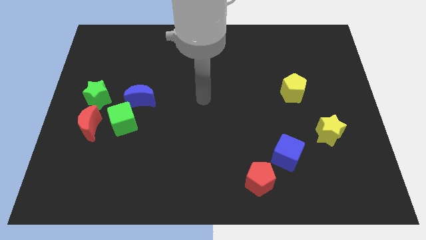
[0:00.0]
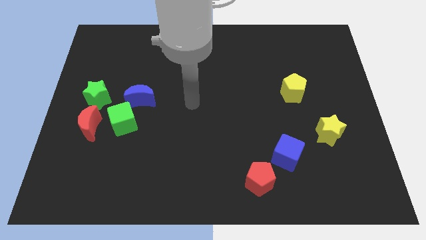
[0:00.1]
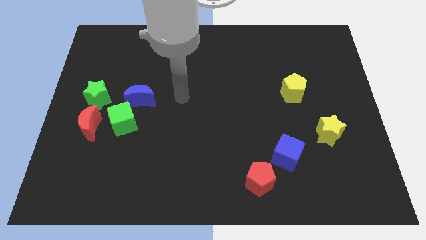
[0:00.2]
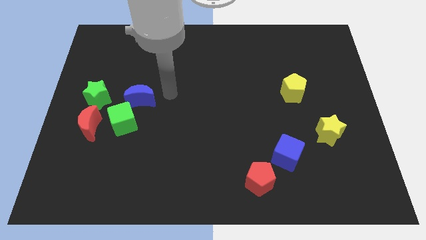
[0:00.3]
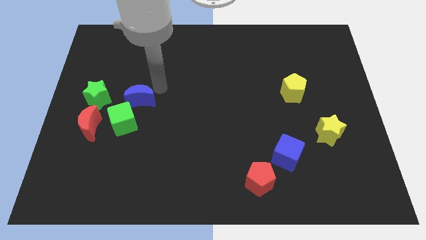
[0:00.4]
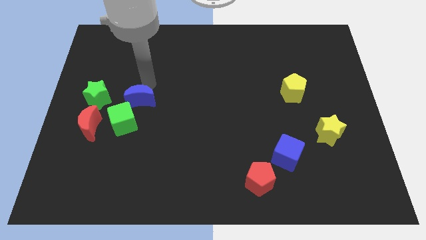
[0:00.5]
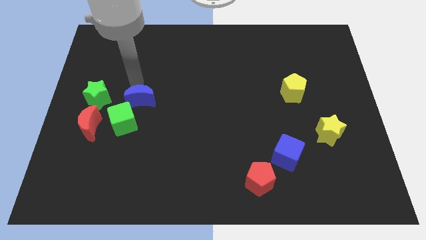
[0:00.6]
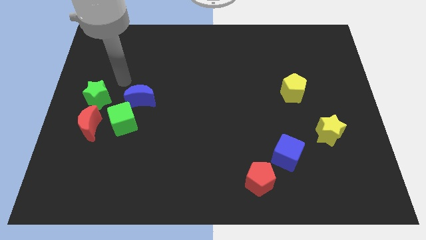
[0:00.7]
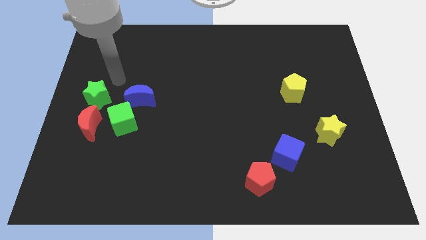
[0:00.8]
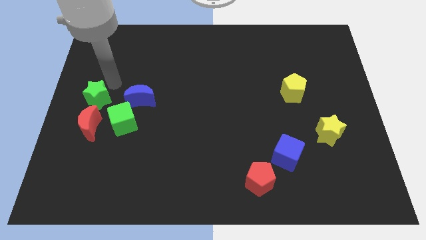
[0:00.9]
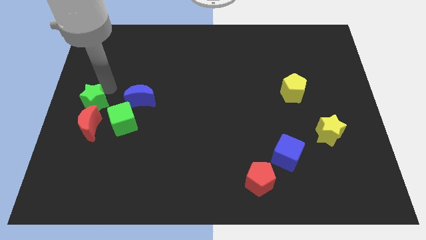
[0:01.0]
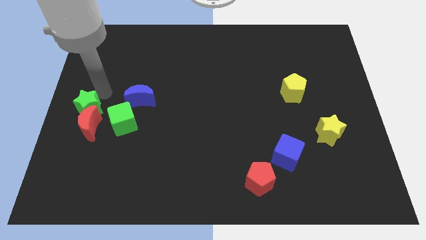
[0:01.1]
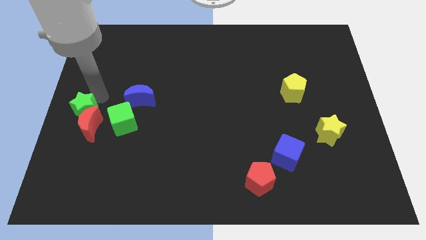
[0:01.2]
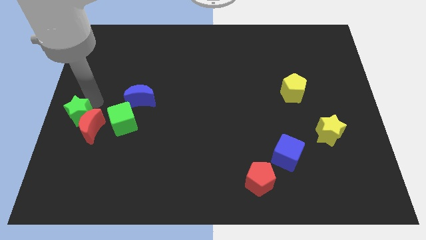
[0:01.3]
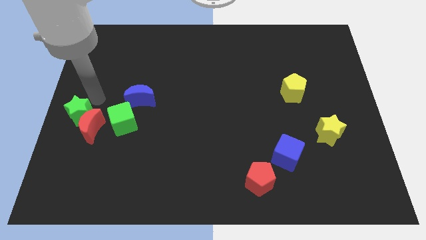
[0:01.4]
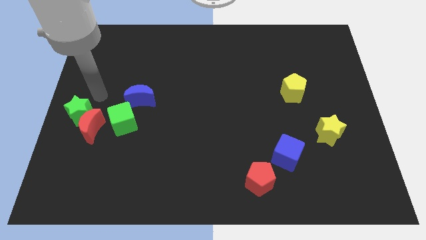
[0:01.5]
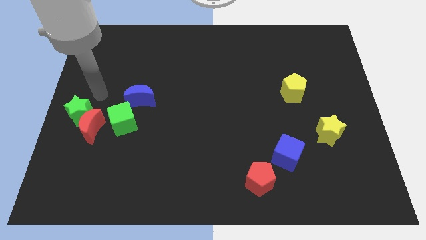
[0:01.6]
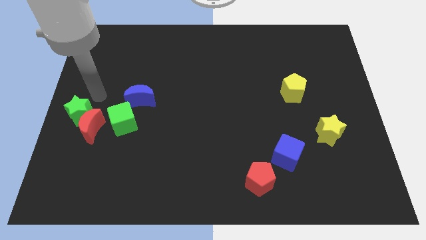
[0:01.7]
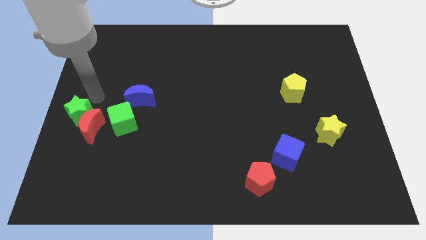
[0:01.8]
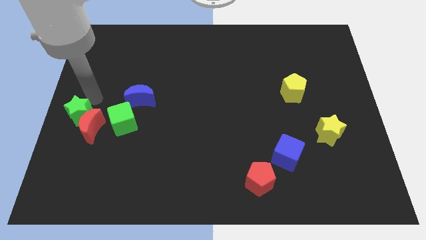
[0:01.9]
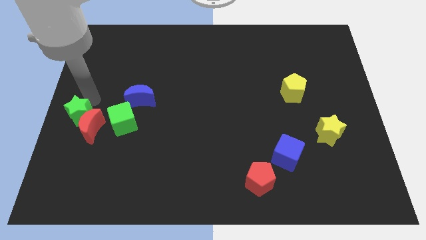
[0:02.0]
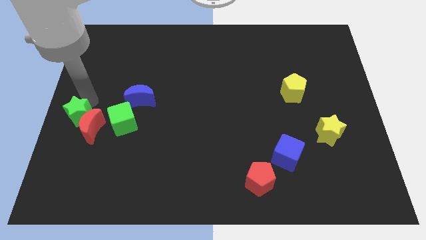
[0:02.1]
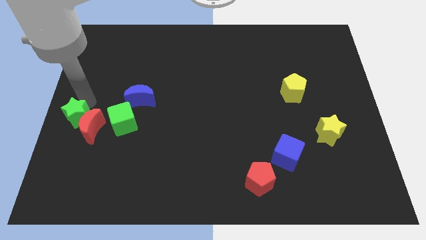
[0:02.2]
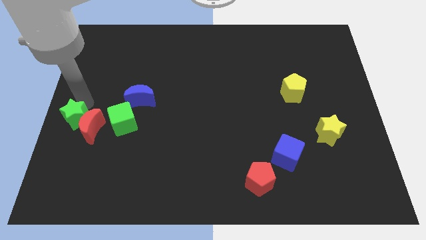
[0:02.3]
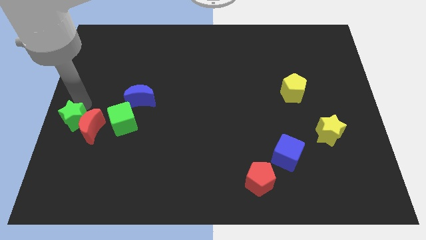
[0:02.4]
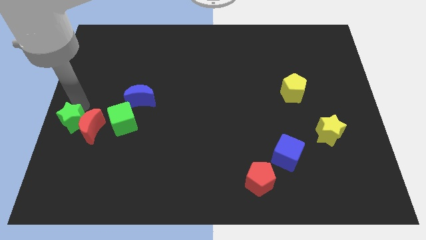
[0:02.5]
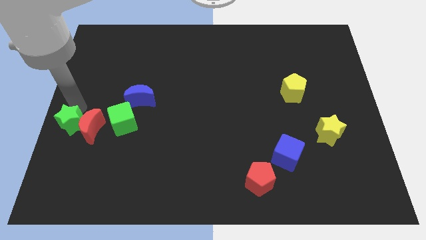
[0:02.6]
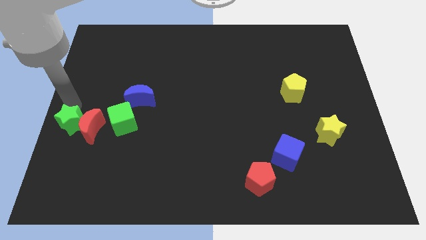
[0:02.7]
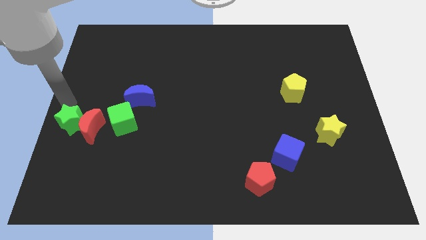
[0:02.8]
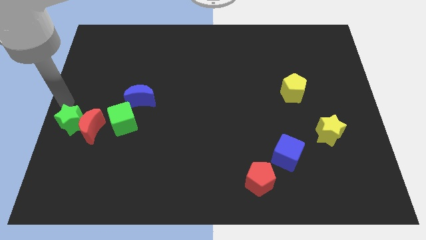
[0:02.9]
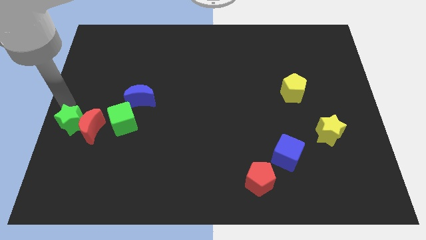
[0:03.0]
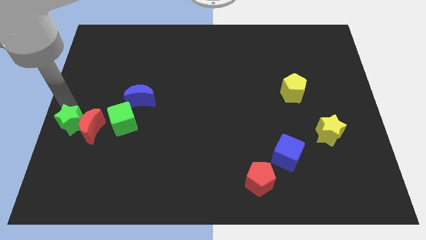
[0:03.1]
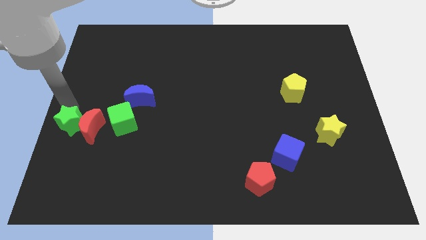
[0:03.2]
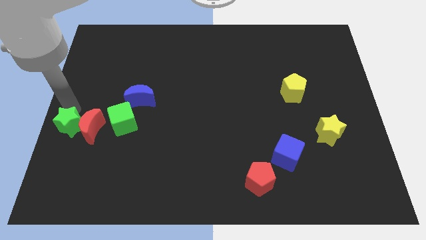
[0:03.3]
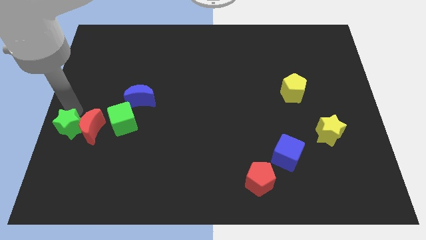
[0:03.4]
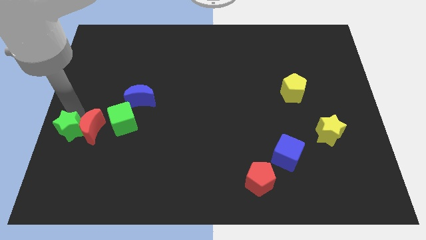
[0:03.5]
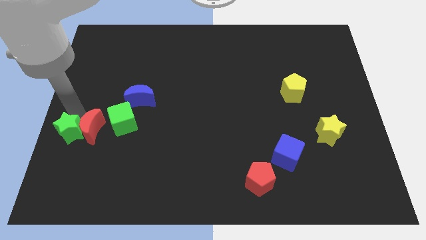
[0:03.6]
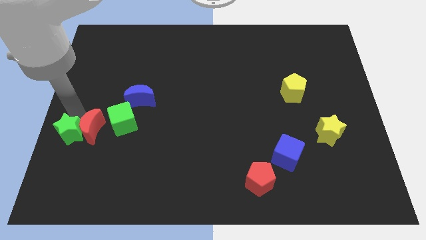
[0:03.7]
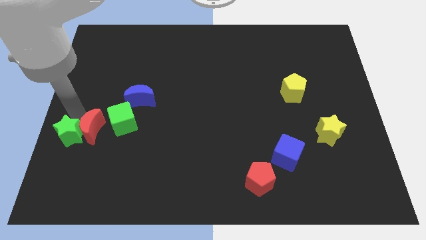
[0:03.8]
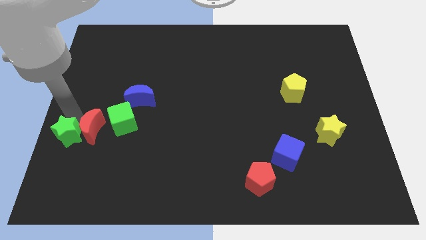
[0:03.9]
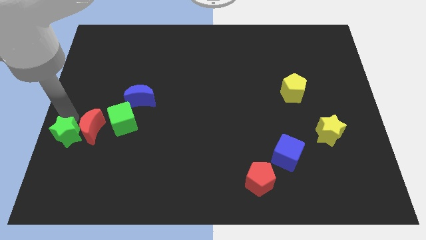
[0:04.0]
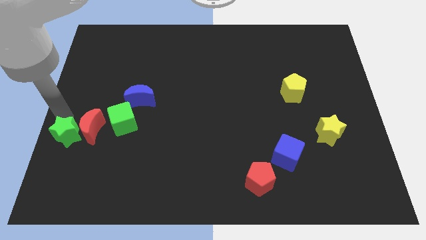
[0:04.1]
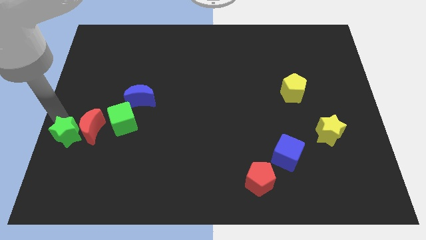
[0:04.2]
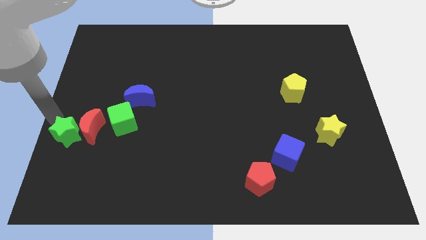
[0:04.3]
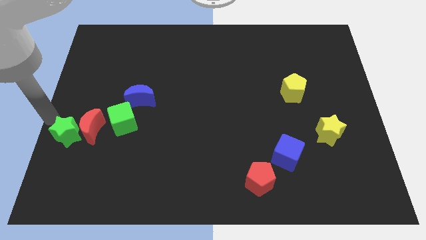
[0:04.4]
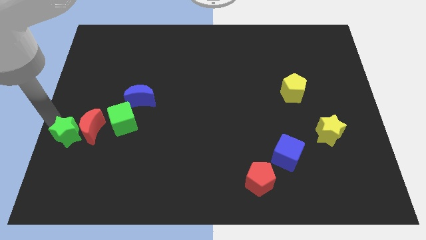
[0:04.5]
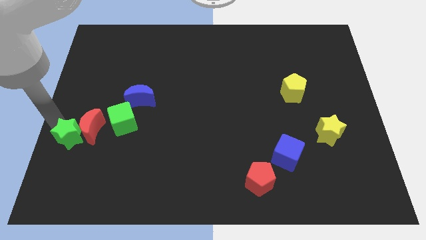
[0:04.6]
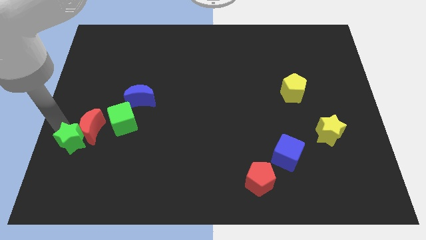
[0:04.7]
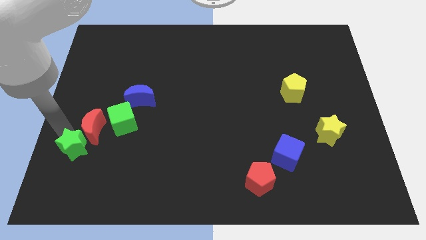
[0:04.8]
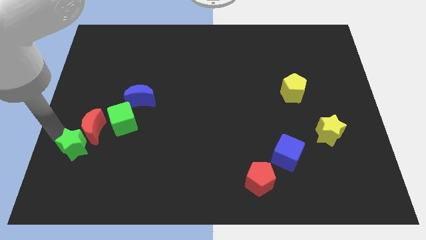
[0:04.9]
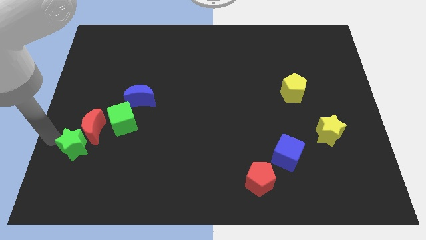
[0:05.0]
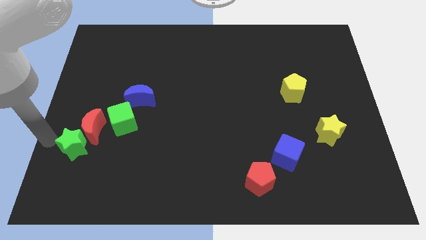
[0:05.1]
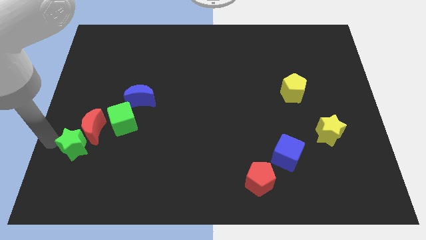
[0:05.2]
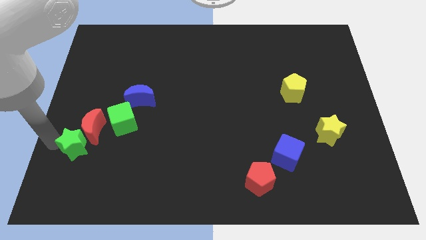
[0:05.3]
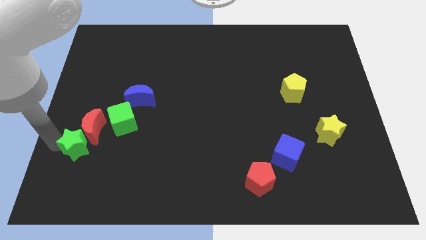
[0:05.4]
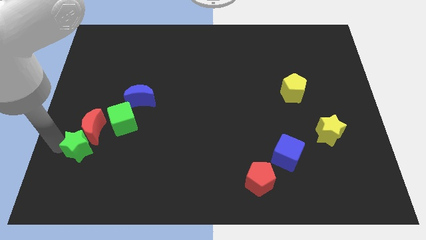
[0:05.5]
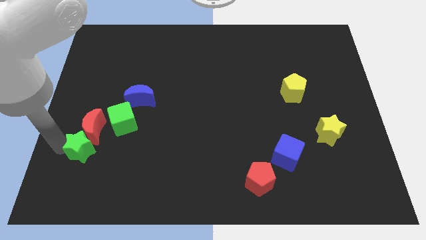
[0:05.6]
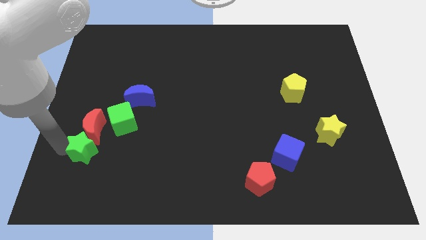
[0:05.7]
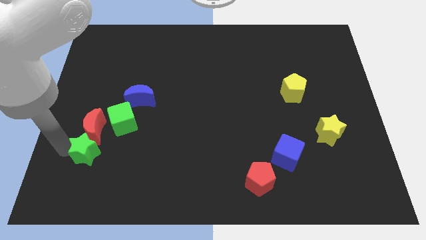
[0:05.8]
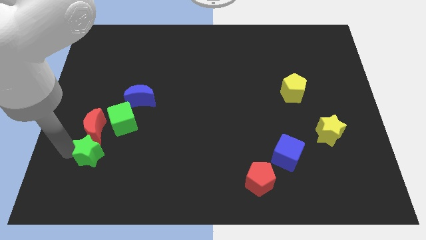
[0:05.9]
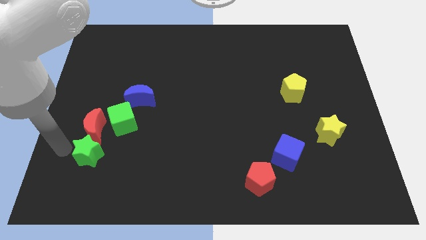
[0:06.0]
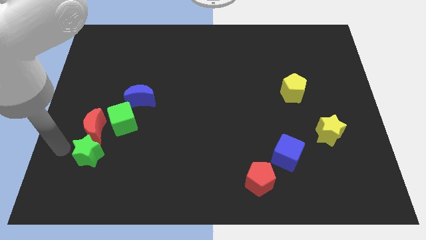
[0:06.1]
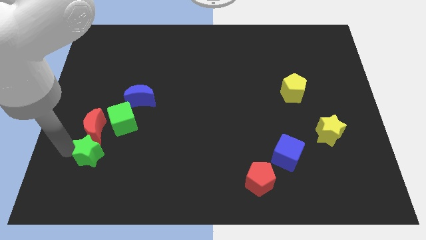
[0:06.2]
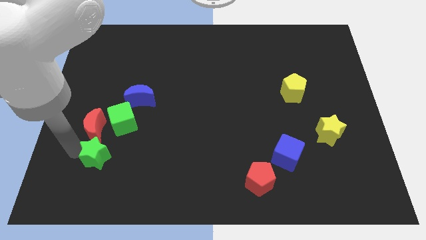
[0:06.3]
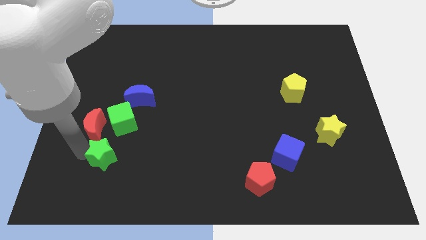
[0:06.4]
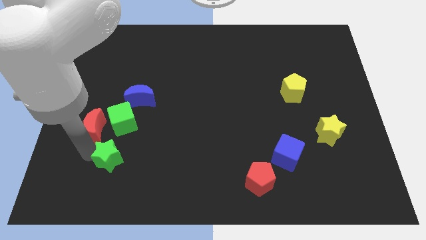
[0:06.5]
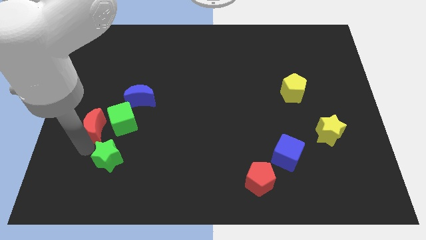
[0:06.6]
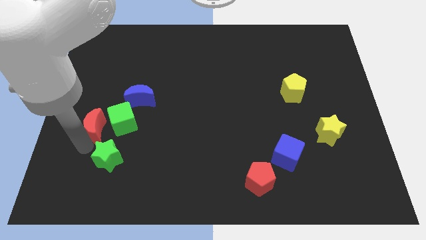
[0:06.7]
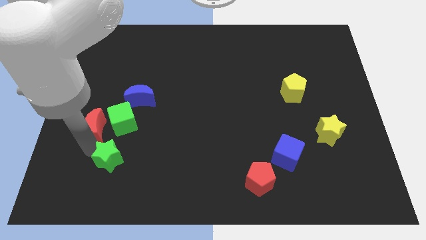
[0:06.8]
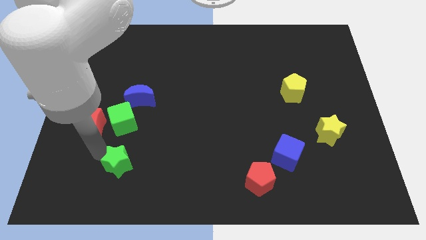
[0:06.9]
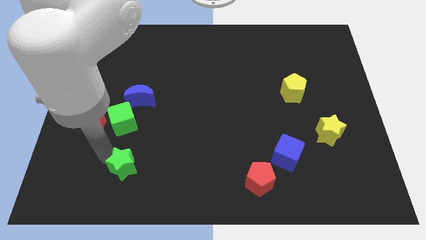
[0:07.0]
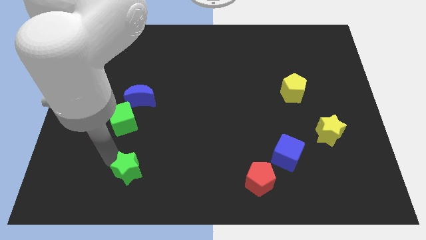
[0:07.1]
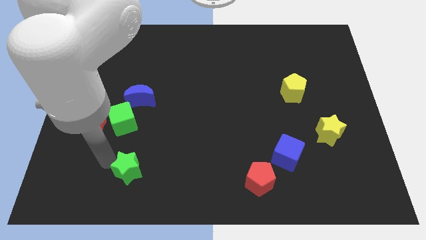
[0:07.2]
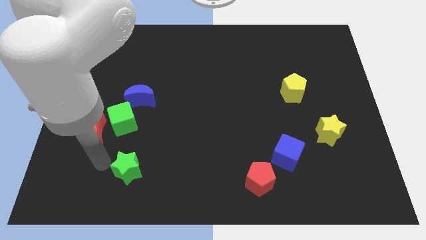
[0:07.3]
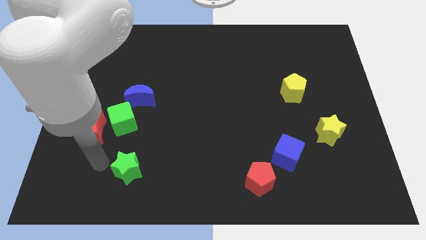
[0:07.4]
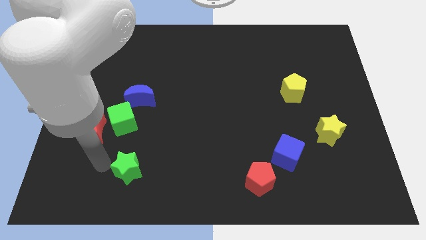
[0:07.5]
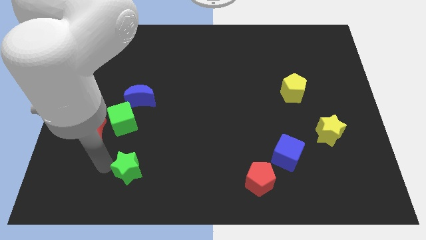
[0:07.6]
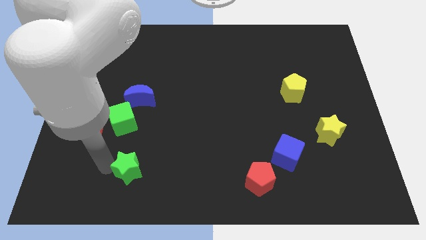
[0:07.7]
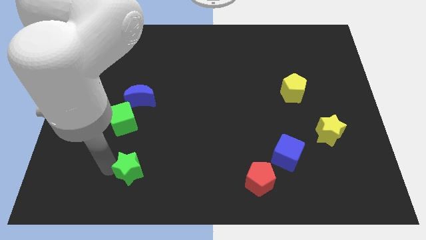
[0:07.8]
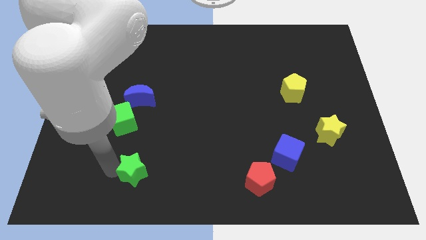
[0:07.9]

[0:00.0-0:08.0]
push the green star diagonally downwards and right

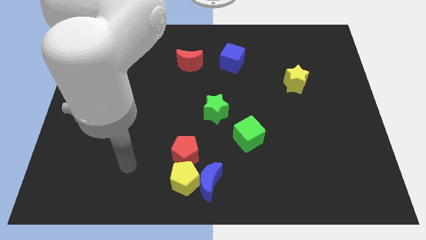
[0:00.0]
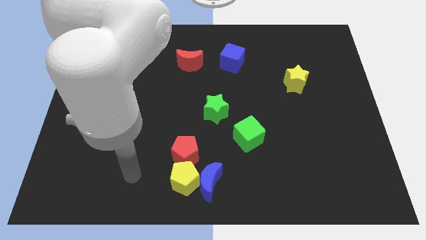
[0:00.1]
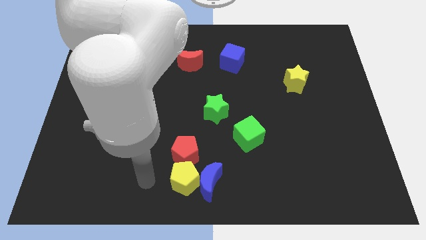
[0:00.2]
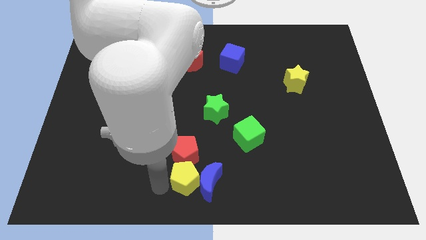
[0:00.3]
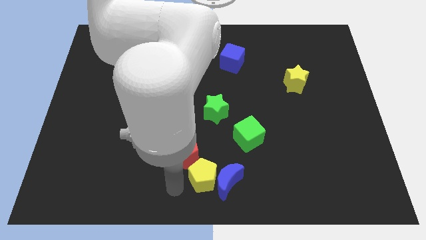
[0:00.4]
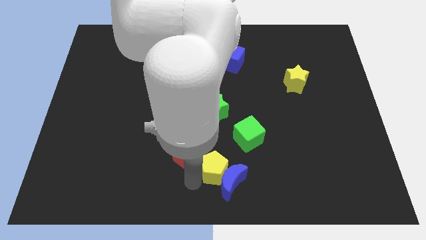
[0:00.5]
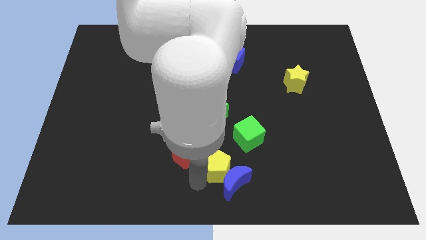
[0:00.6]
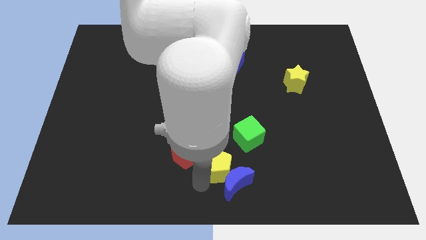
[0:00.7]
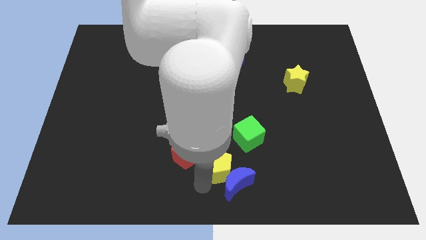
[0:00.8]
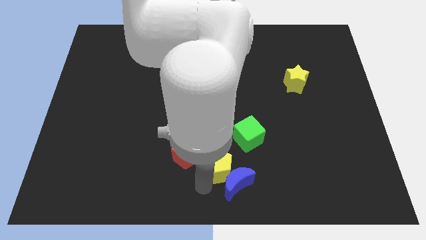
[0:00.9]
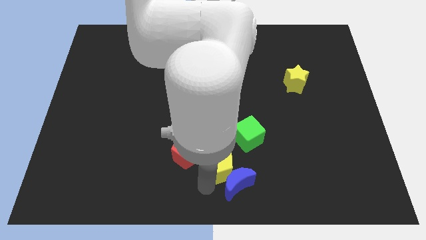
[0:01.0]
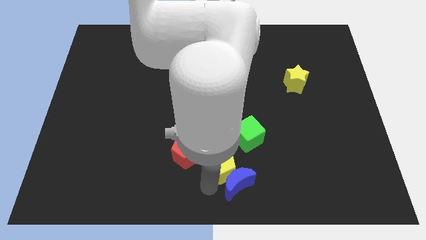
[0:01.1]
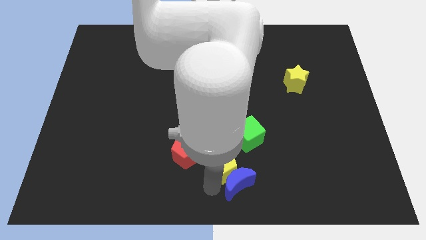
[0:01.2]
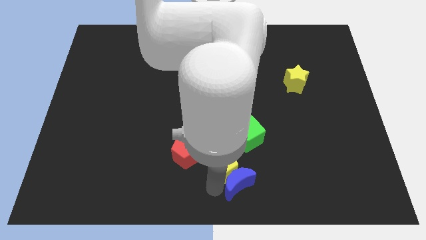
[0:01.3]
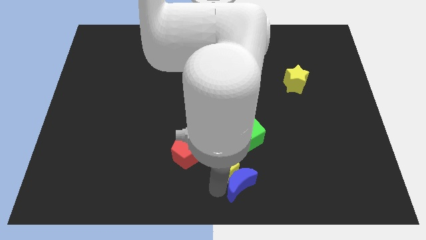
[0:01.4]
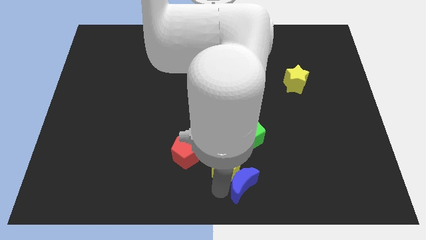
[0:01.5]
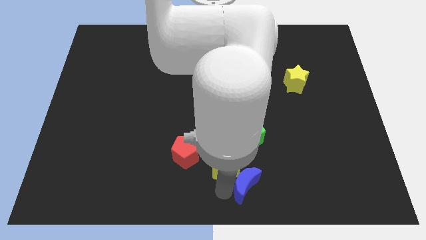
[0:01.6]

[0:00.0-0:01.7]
slide the blue moon a little to the right
